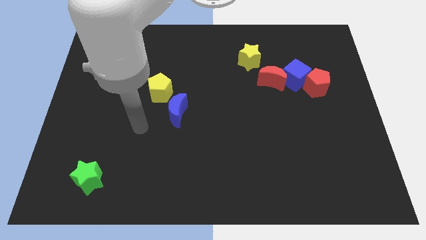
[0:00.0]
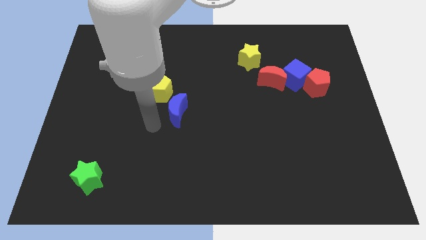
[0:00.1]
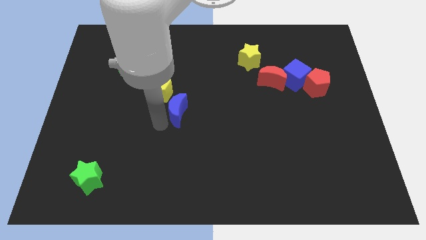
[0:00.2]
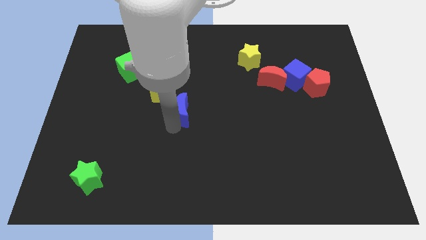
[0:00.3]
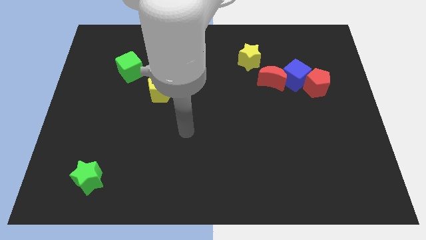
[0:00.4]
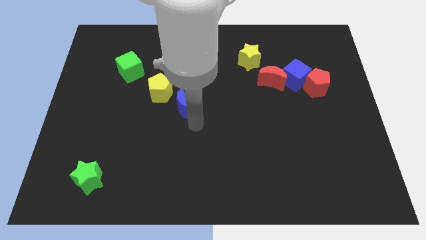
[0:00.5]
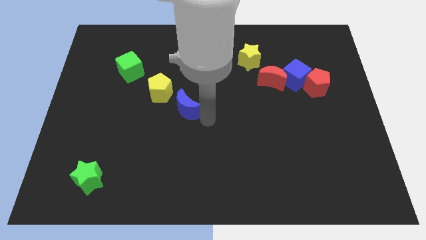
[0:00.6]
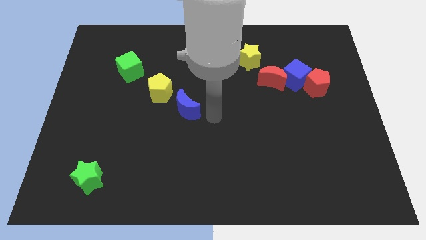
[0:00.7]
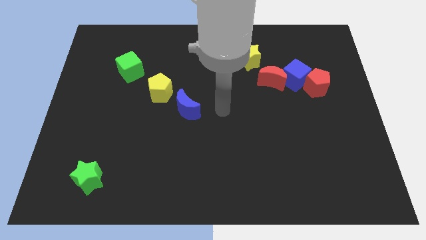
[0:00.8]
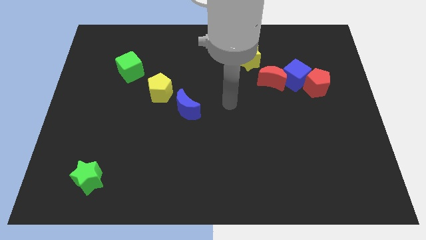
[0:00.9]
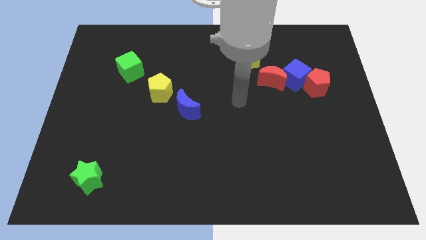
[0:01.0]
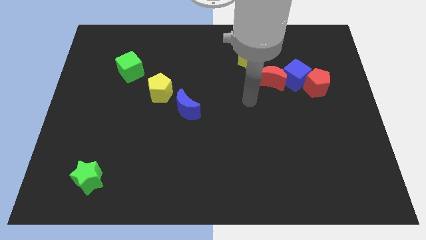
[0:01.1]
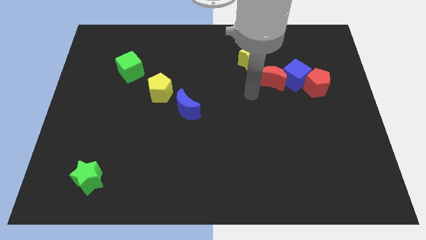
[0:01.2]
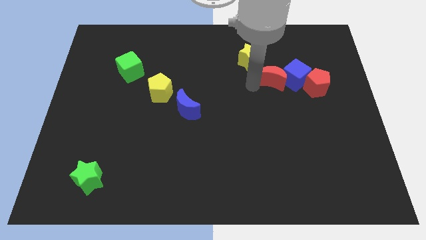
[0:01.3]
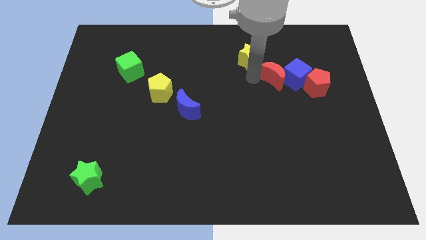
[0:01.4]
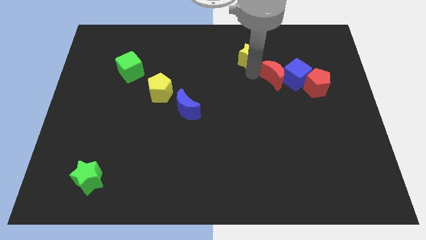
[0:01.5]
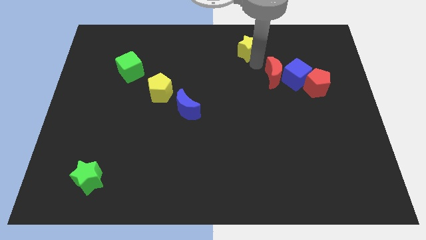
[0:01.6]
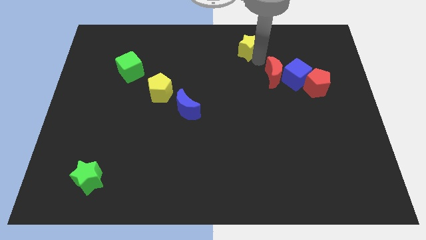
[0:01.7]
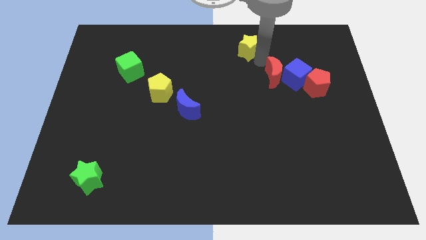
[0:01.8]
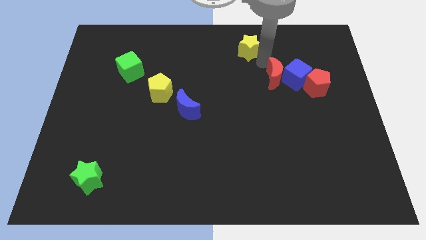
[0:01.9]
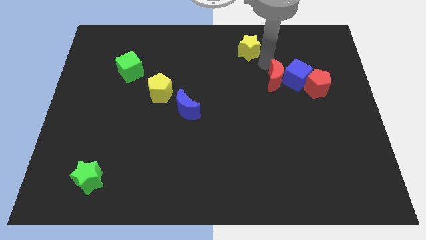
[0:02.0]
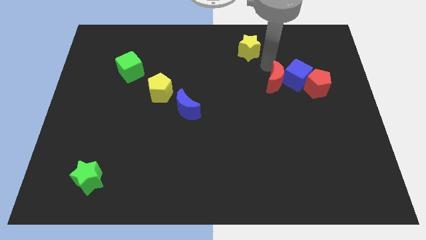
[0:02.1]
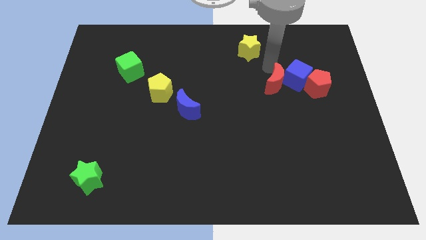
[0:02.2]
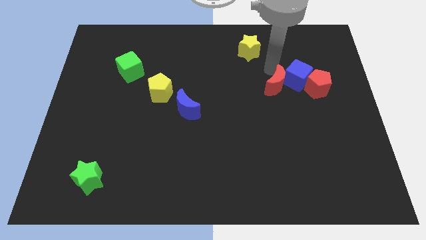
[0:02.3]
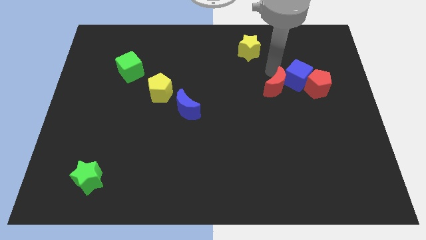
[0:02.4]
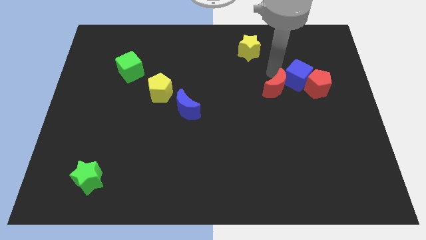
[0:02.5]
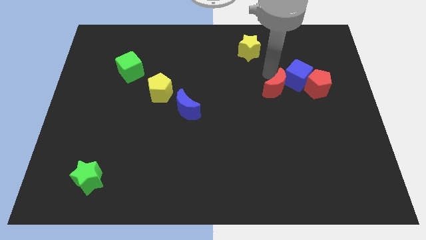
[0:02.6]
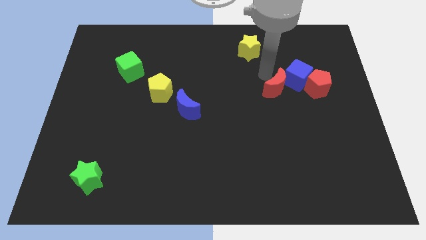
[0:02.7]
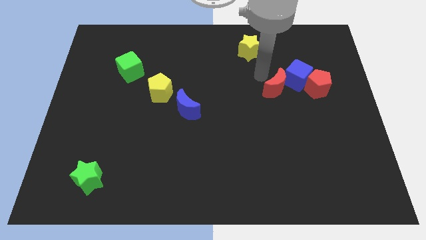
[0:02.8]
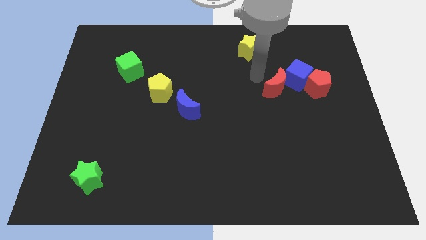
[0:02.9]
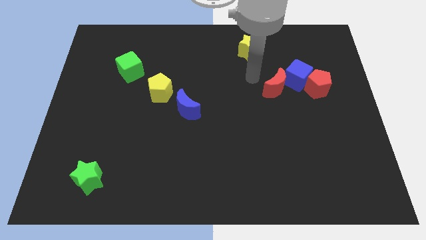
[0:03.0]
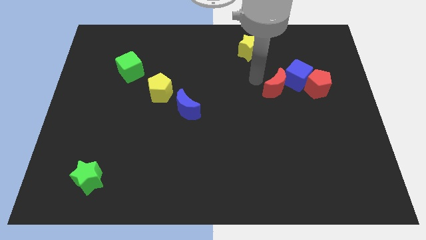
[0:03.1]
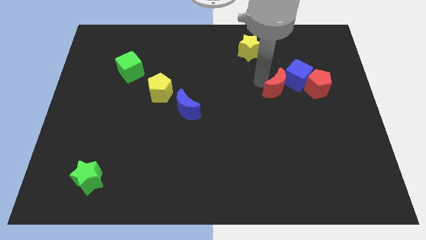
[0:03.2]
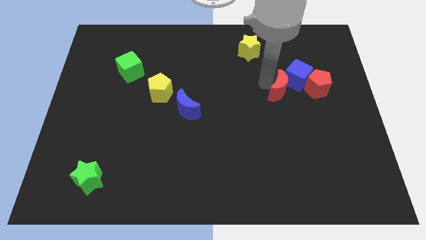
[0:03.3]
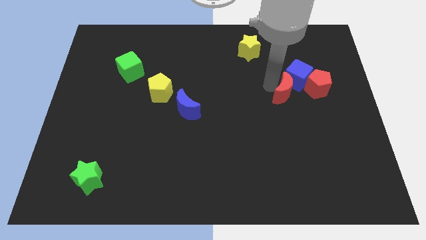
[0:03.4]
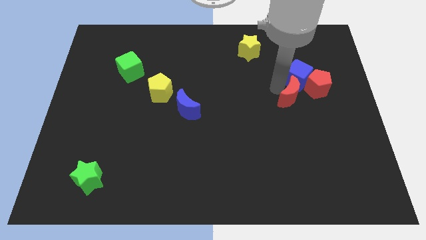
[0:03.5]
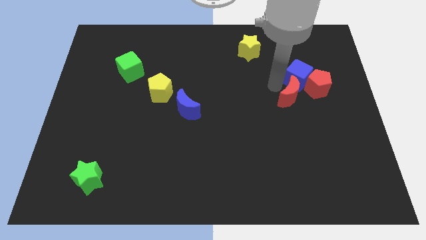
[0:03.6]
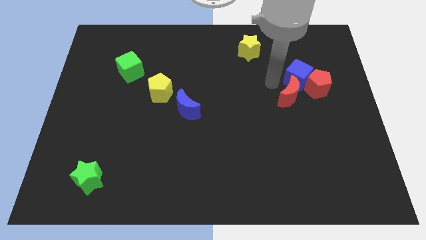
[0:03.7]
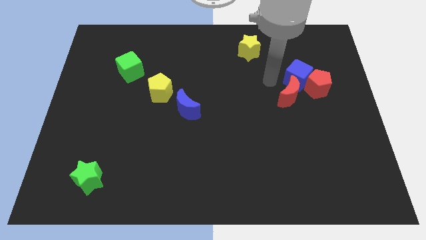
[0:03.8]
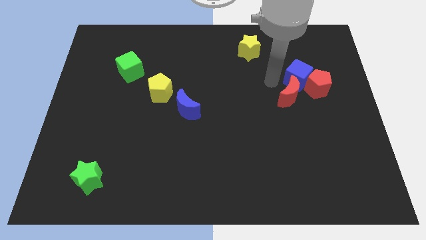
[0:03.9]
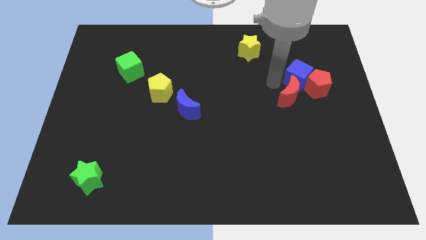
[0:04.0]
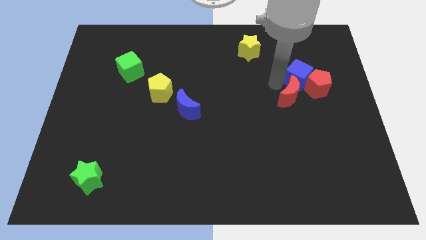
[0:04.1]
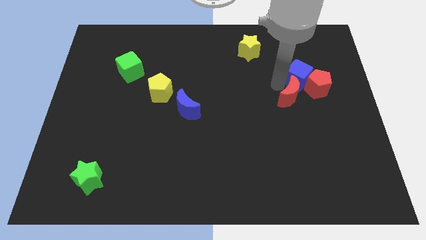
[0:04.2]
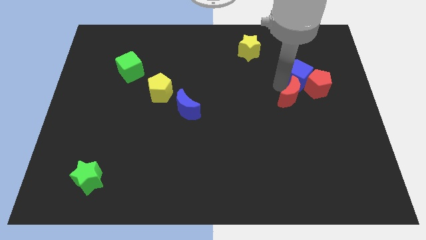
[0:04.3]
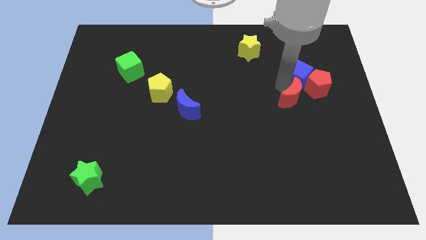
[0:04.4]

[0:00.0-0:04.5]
push the red moon diagonally downwards and to the right a bit

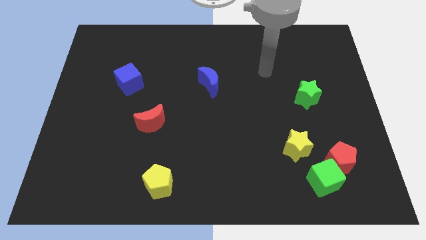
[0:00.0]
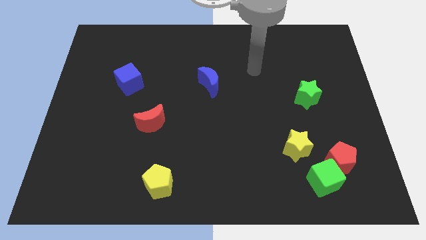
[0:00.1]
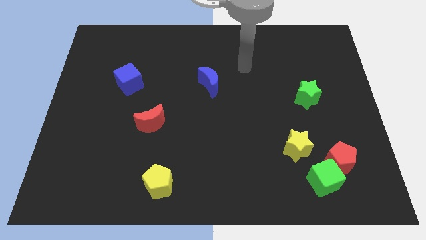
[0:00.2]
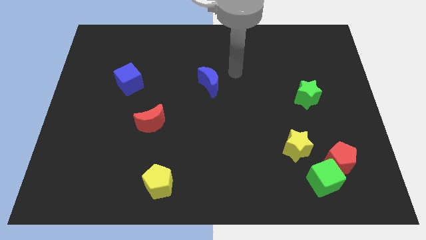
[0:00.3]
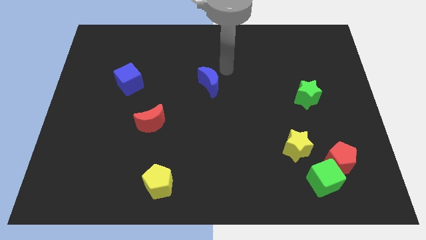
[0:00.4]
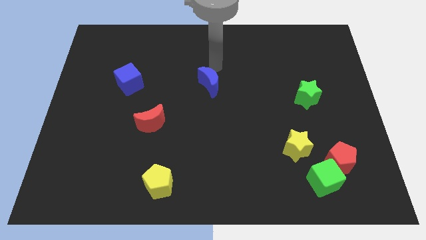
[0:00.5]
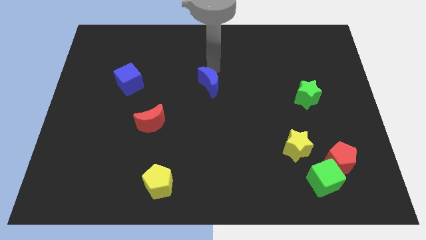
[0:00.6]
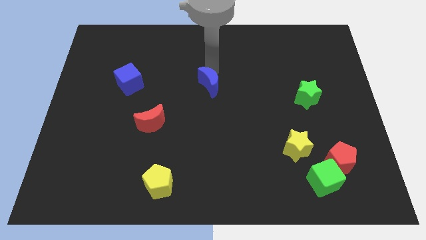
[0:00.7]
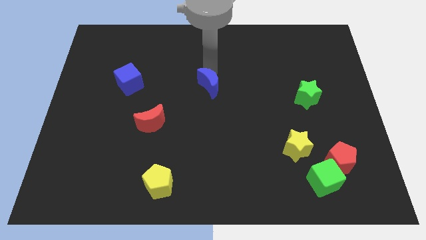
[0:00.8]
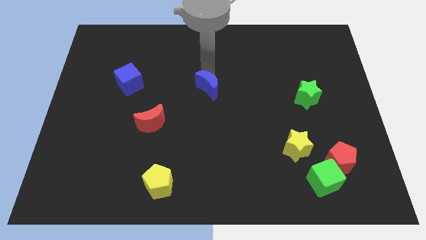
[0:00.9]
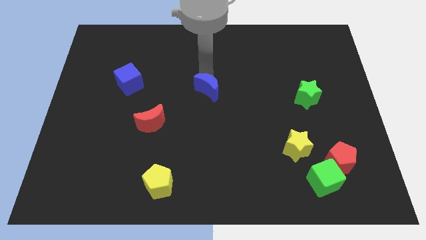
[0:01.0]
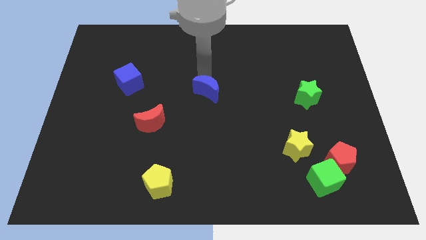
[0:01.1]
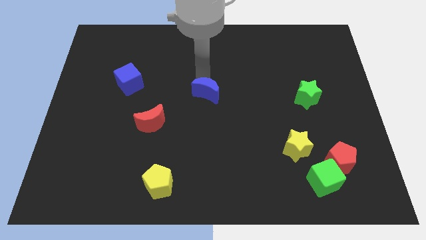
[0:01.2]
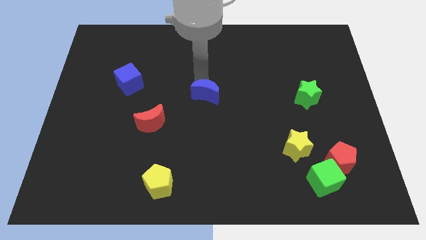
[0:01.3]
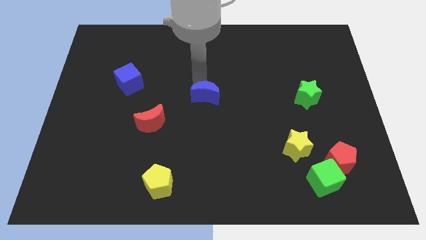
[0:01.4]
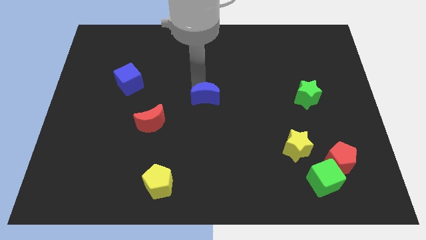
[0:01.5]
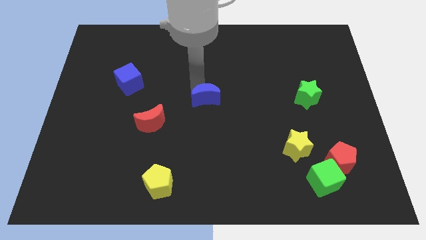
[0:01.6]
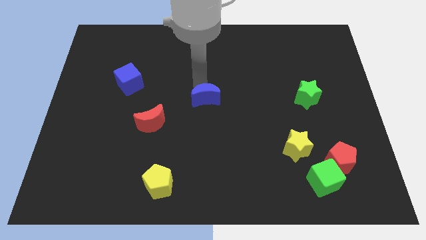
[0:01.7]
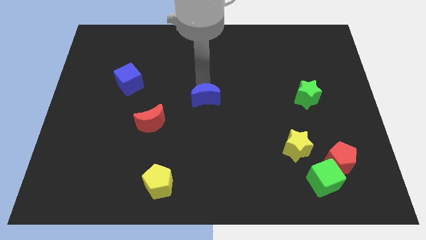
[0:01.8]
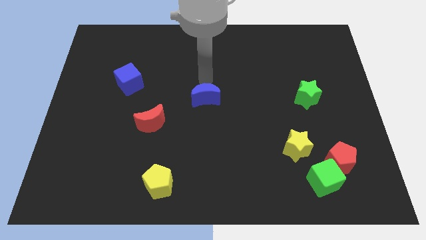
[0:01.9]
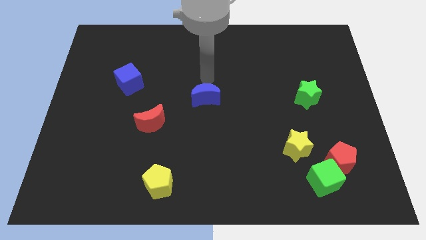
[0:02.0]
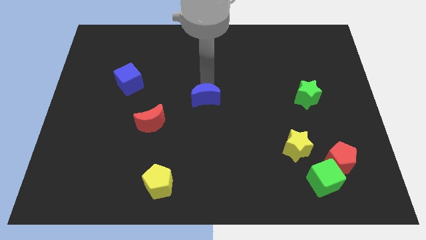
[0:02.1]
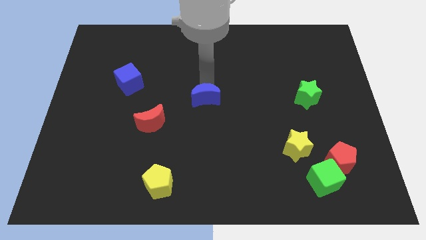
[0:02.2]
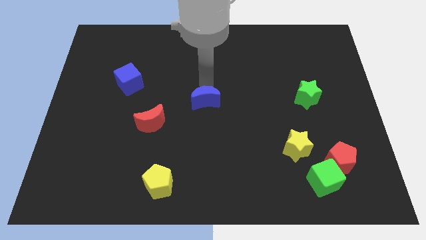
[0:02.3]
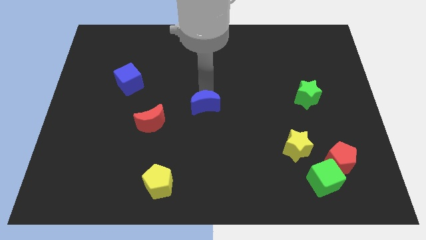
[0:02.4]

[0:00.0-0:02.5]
push the blue moon a bit down

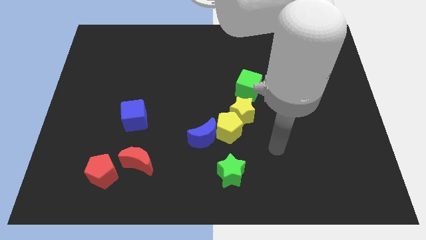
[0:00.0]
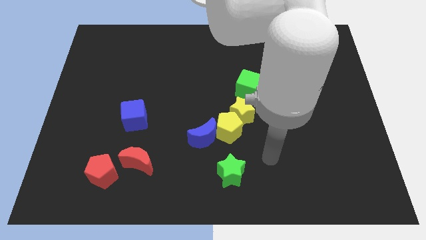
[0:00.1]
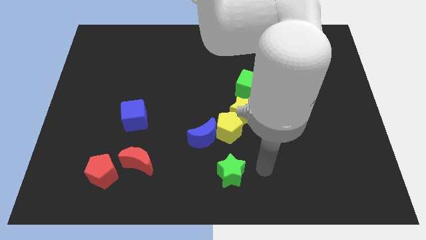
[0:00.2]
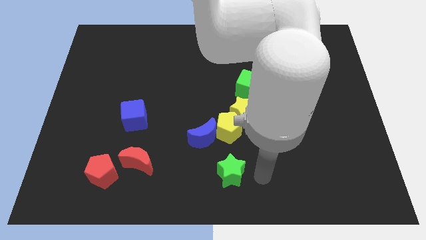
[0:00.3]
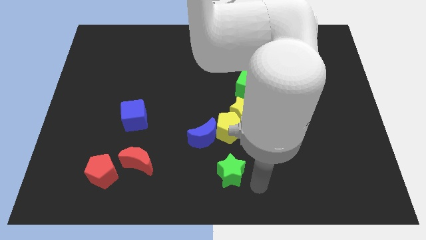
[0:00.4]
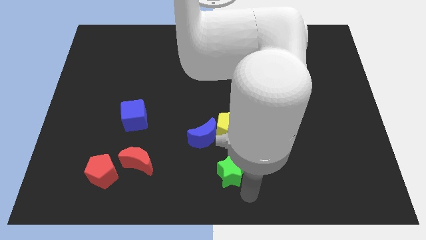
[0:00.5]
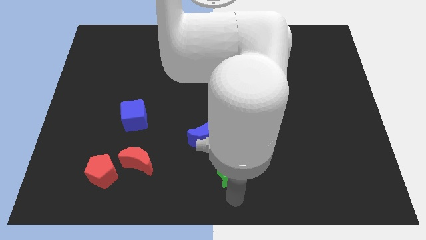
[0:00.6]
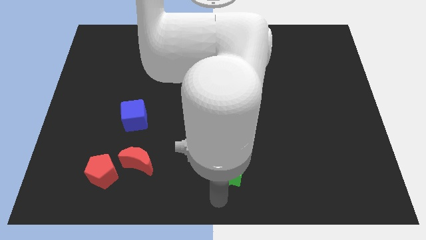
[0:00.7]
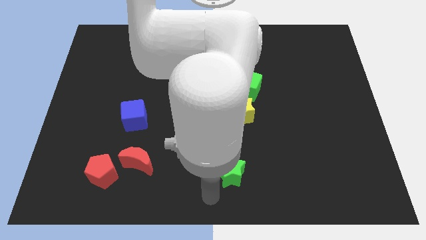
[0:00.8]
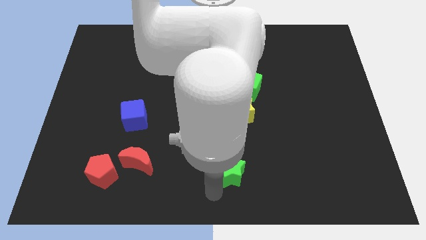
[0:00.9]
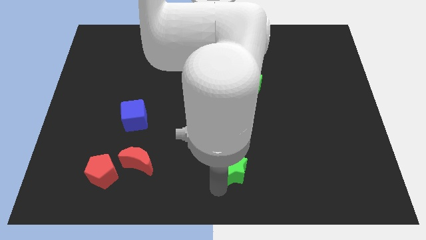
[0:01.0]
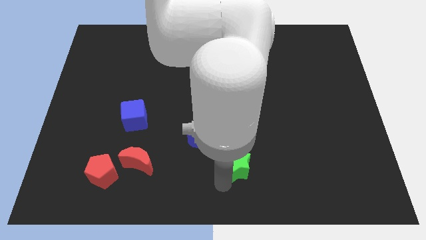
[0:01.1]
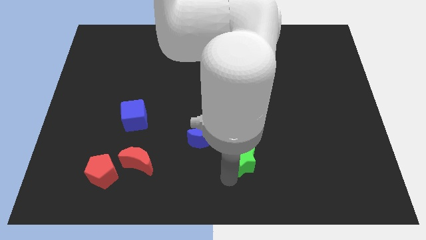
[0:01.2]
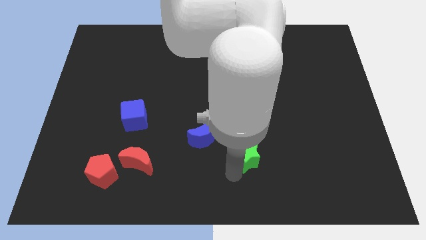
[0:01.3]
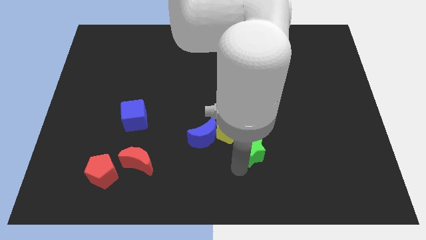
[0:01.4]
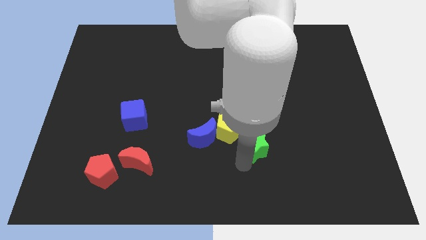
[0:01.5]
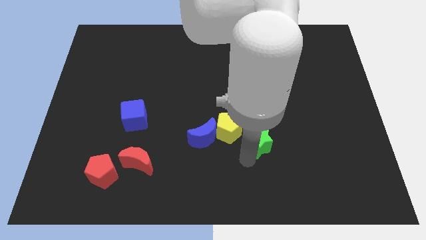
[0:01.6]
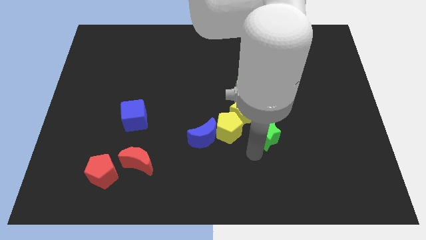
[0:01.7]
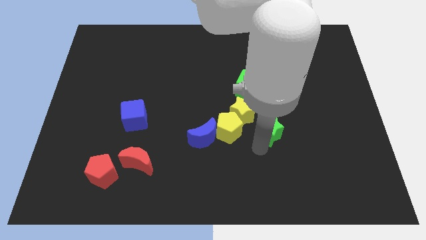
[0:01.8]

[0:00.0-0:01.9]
slightly push the green star upwards
